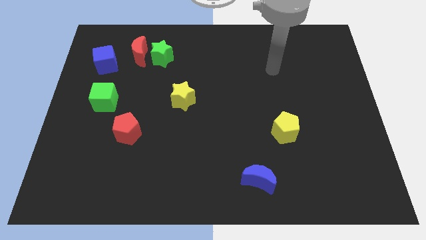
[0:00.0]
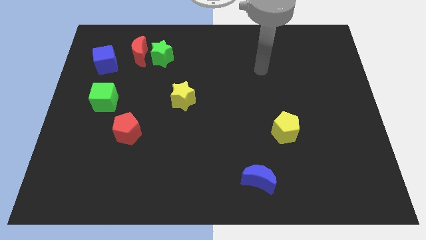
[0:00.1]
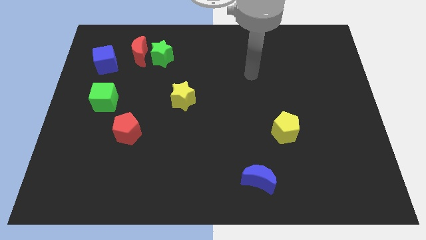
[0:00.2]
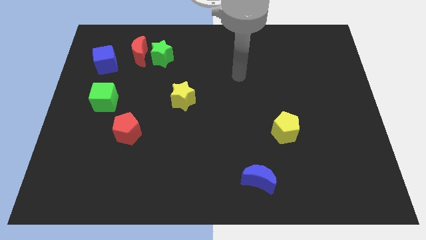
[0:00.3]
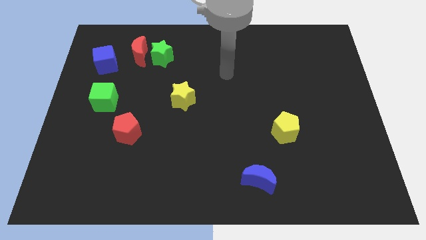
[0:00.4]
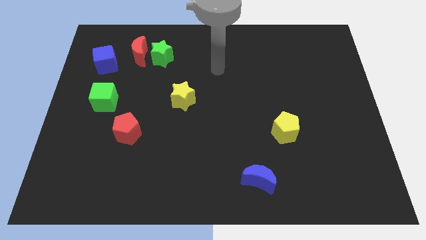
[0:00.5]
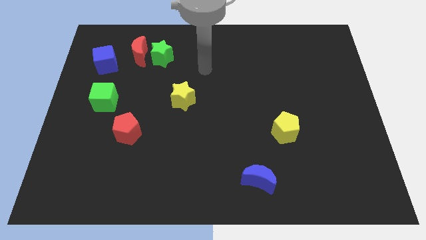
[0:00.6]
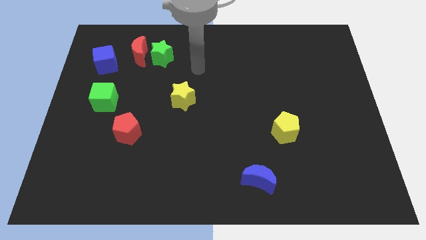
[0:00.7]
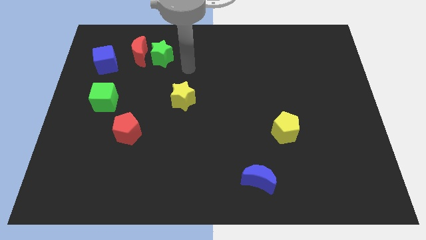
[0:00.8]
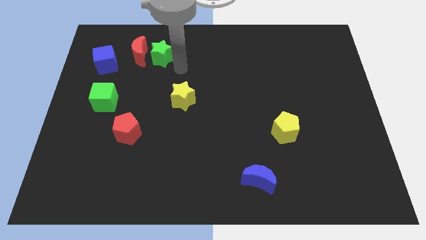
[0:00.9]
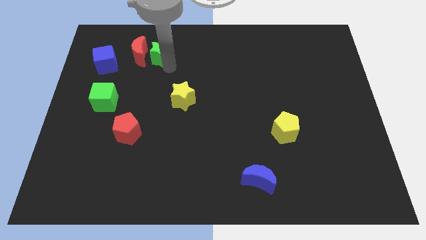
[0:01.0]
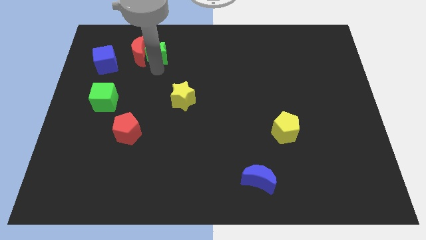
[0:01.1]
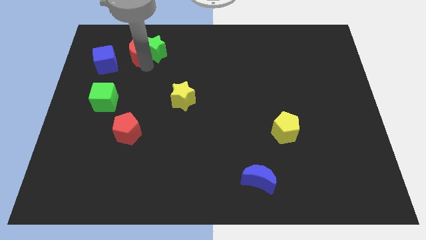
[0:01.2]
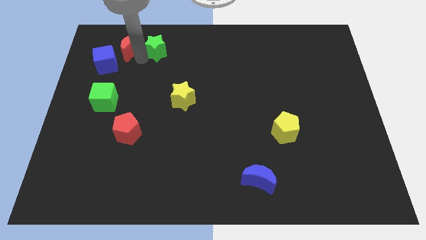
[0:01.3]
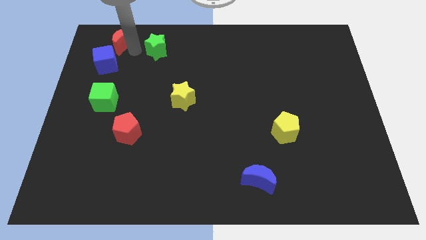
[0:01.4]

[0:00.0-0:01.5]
move the green star away from the red moon

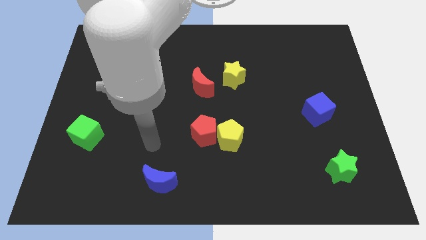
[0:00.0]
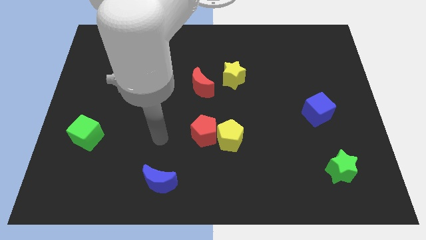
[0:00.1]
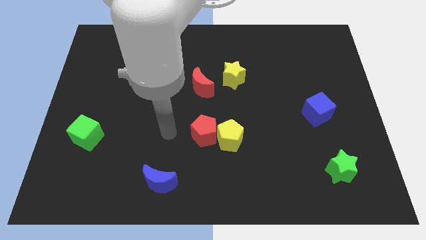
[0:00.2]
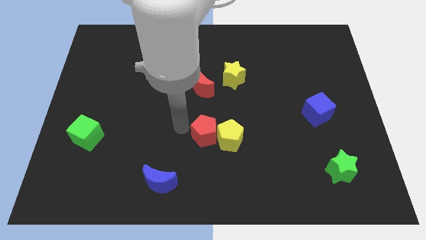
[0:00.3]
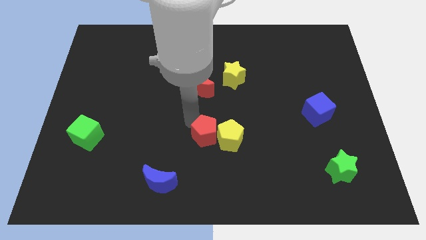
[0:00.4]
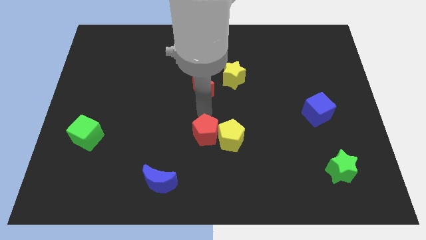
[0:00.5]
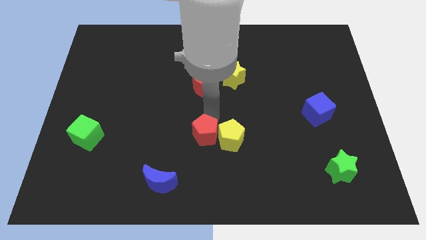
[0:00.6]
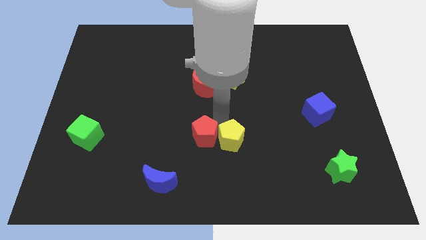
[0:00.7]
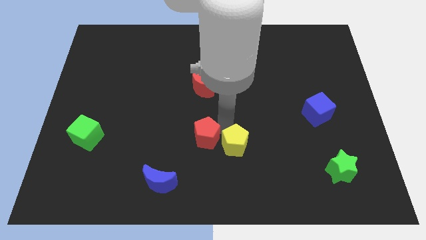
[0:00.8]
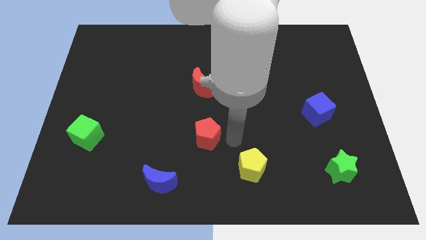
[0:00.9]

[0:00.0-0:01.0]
pull the red pentagon apart from the yellow pentagon

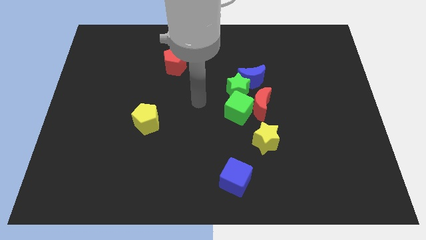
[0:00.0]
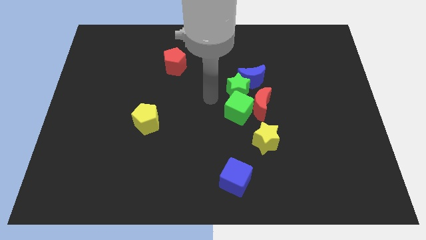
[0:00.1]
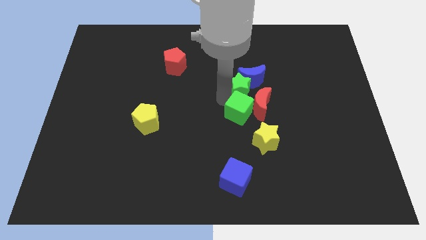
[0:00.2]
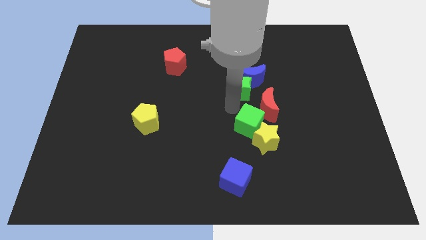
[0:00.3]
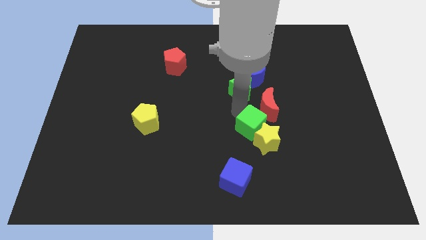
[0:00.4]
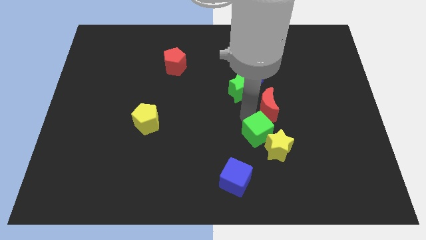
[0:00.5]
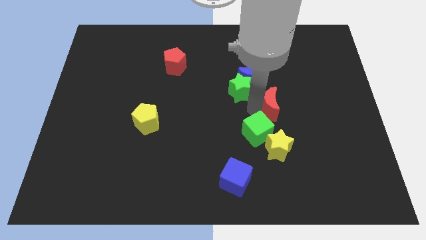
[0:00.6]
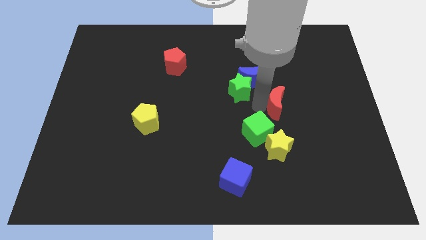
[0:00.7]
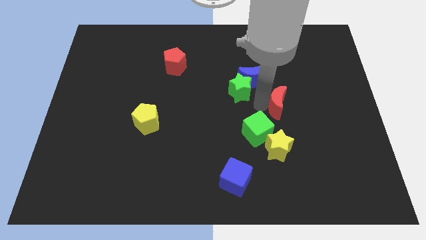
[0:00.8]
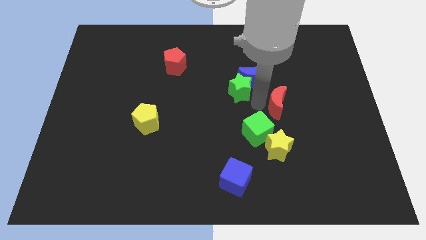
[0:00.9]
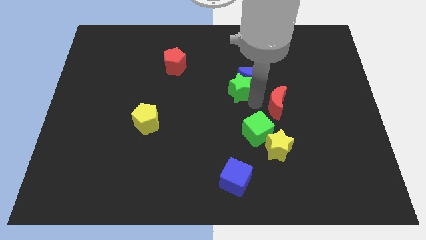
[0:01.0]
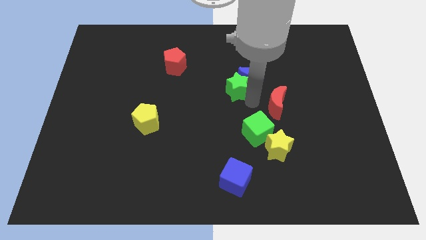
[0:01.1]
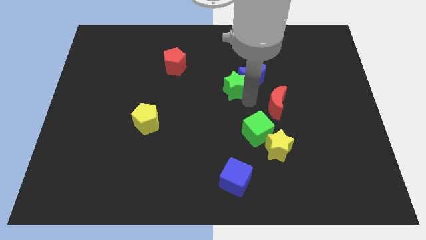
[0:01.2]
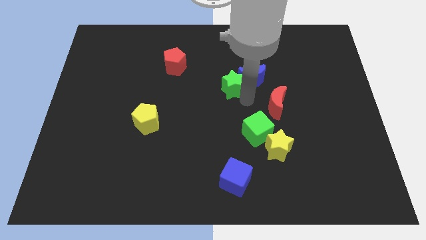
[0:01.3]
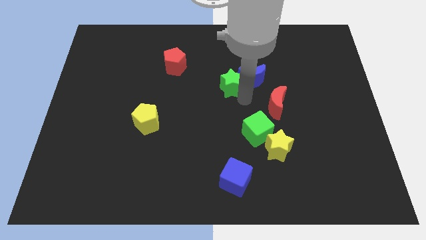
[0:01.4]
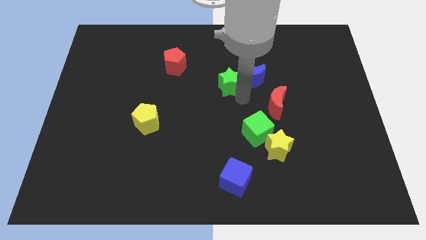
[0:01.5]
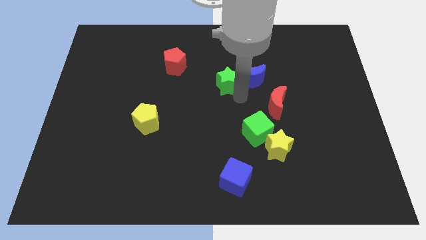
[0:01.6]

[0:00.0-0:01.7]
separate the green star from the blue moon, green cube, and red moon

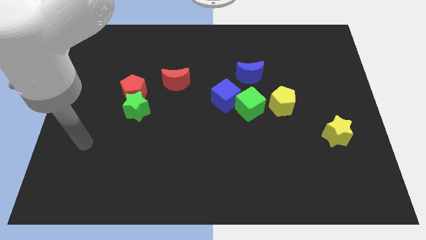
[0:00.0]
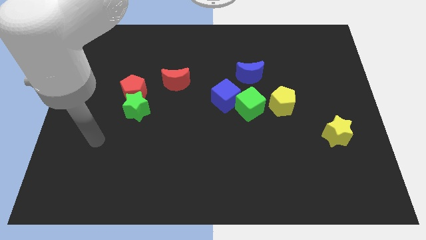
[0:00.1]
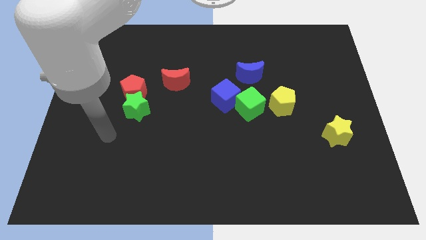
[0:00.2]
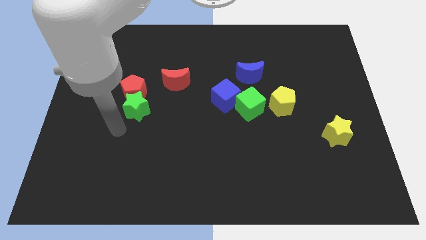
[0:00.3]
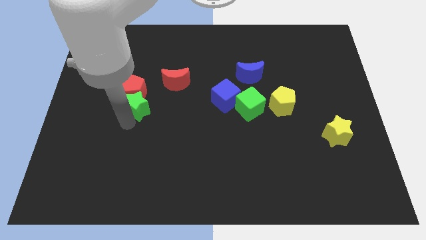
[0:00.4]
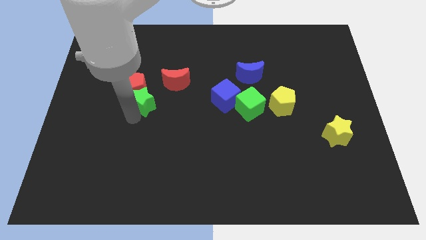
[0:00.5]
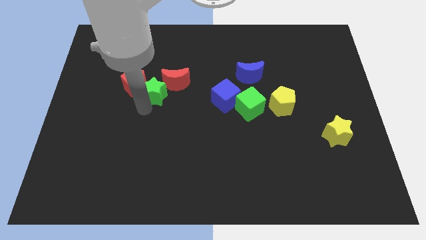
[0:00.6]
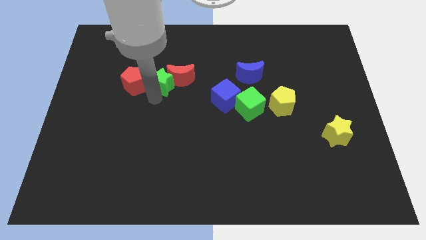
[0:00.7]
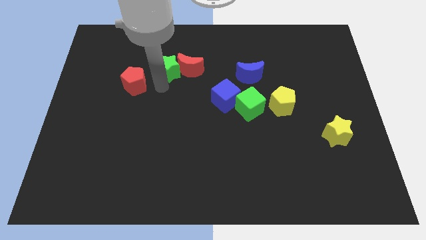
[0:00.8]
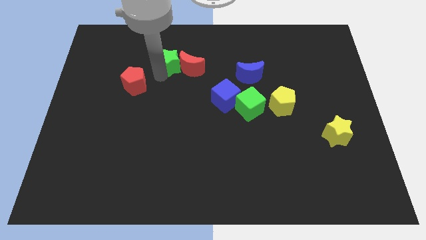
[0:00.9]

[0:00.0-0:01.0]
move the red pentagon away from the green star

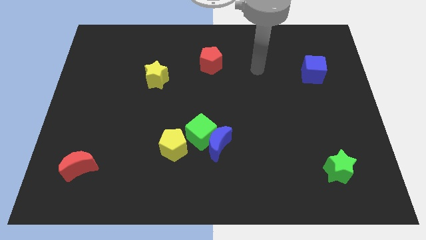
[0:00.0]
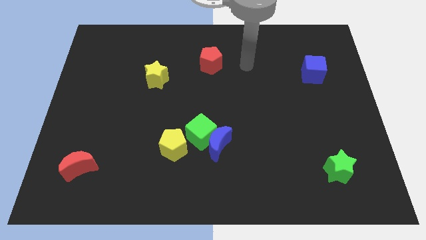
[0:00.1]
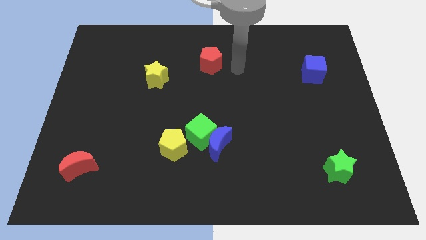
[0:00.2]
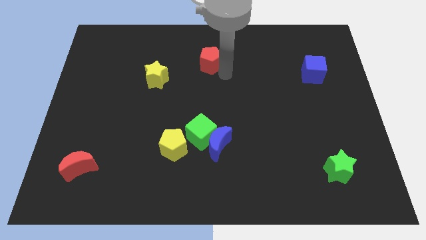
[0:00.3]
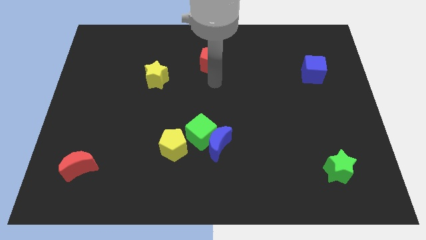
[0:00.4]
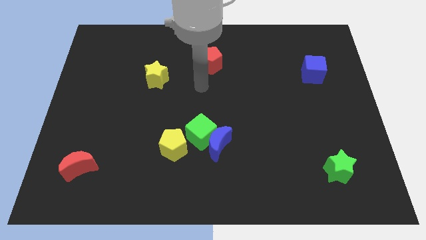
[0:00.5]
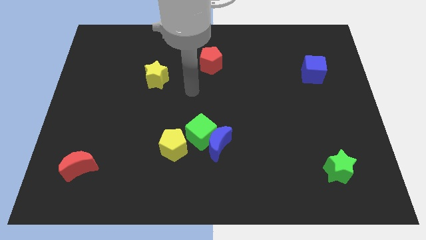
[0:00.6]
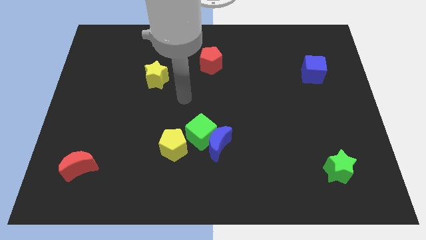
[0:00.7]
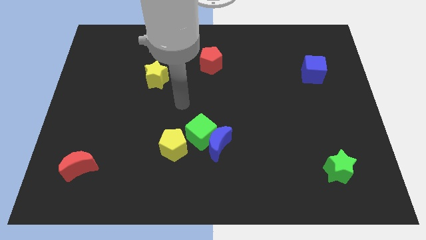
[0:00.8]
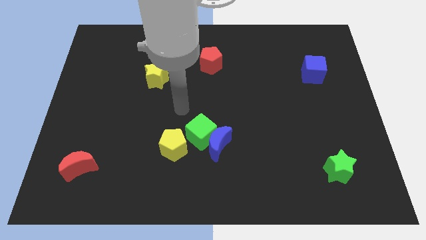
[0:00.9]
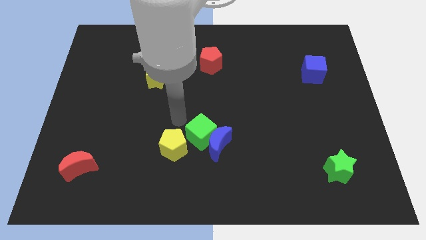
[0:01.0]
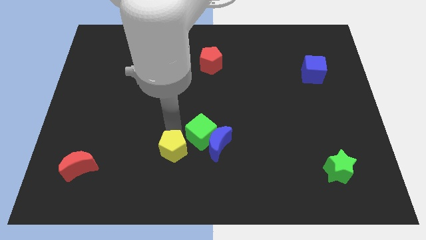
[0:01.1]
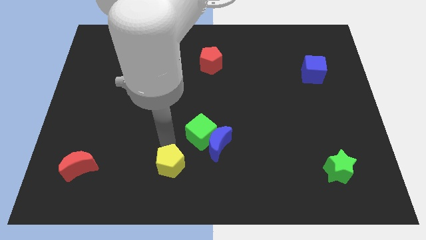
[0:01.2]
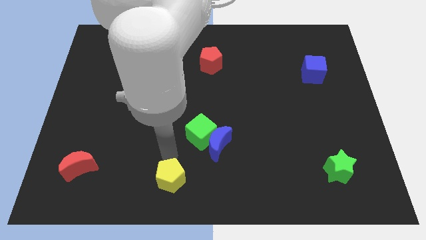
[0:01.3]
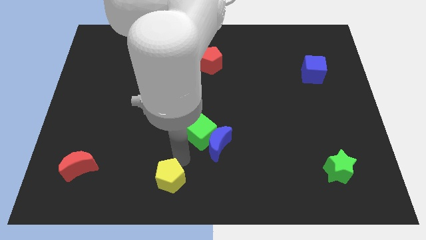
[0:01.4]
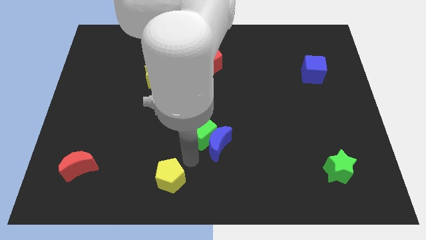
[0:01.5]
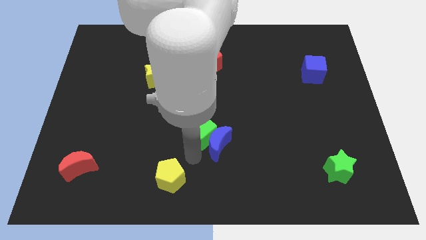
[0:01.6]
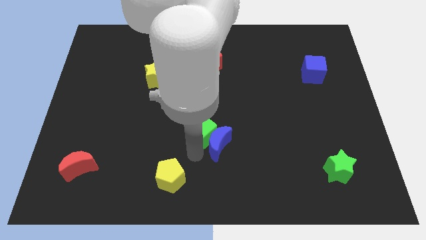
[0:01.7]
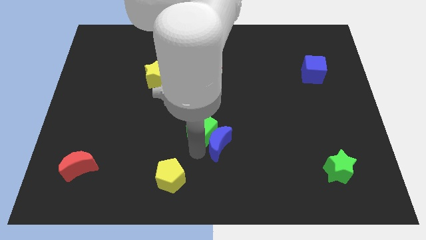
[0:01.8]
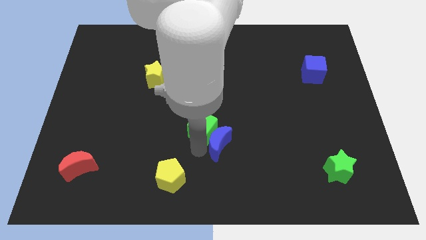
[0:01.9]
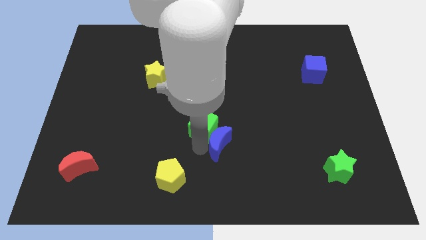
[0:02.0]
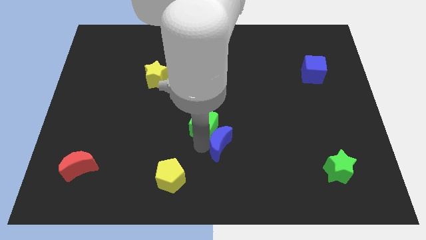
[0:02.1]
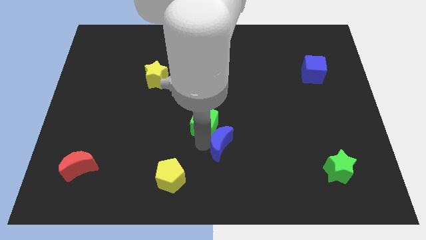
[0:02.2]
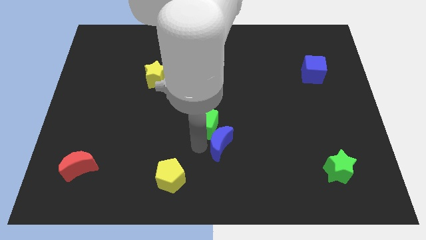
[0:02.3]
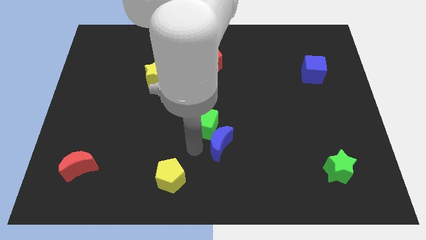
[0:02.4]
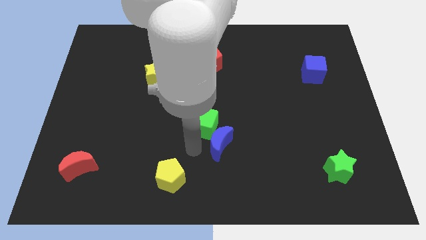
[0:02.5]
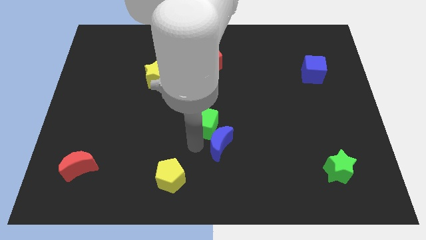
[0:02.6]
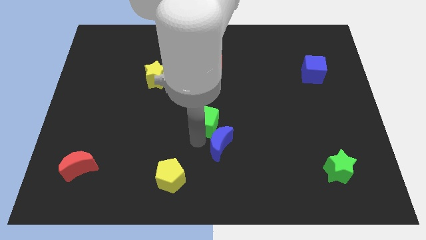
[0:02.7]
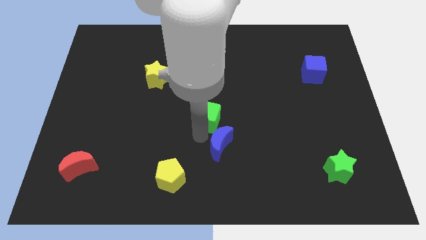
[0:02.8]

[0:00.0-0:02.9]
separate the green cube from the blue moon and yellow pentagon

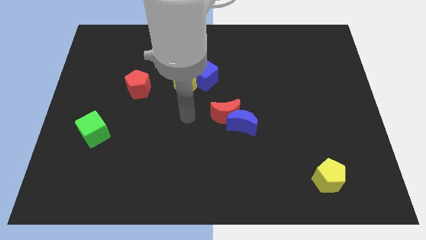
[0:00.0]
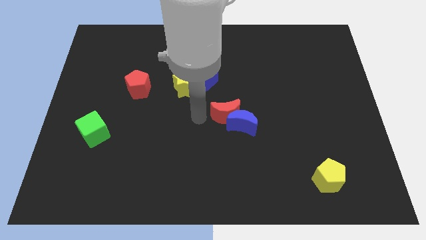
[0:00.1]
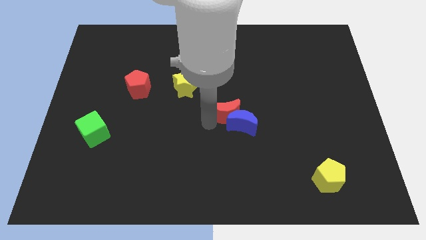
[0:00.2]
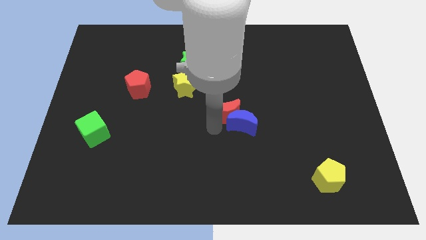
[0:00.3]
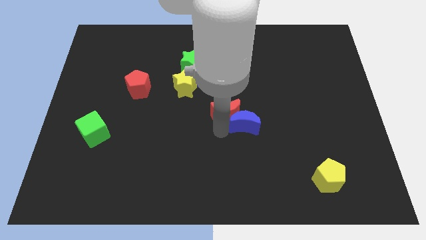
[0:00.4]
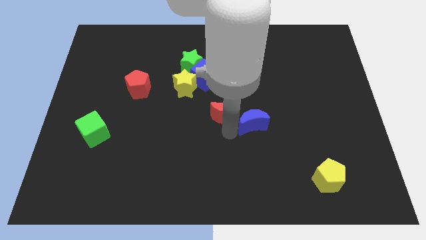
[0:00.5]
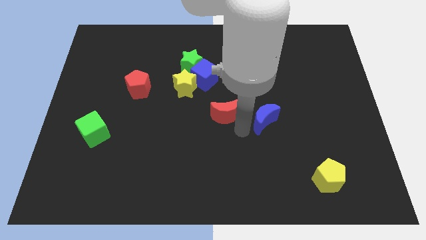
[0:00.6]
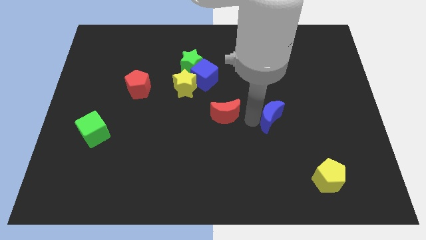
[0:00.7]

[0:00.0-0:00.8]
pull the red moon apart from the blue moon

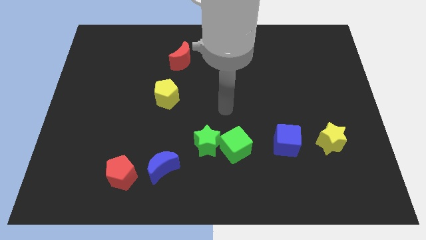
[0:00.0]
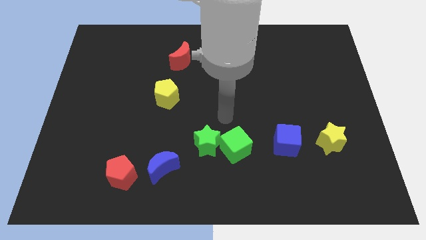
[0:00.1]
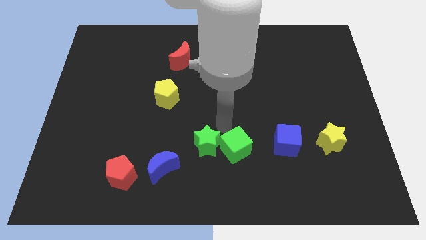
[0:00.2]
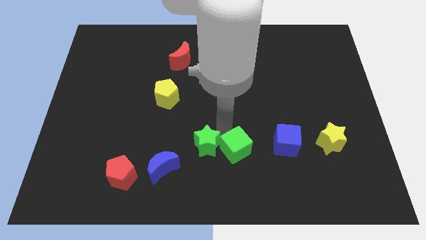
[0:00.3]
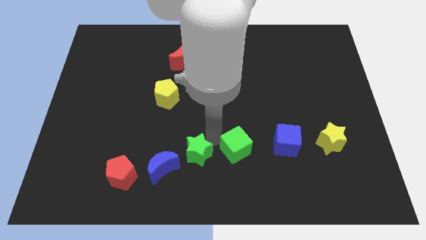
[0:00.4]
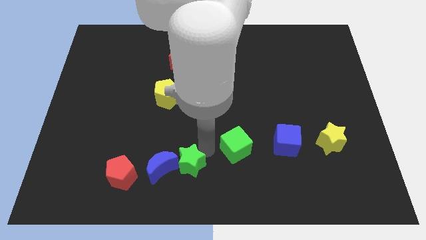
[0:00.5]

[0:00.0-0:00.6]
separate the green cube from the green star
